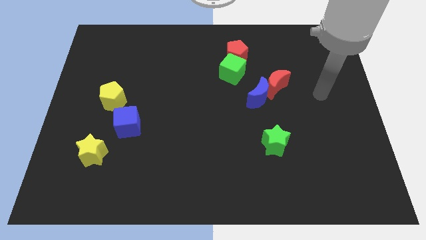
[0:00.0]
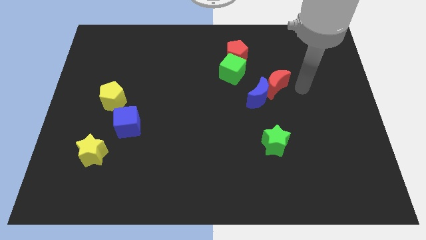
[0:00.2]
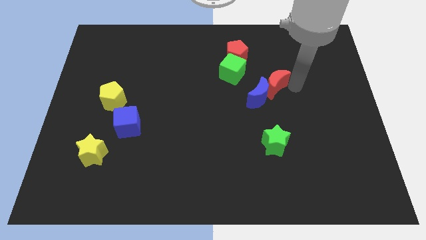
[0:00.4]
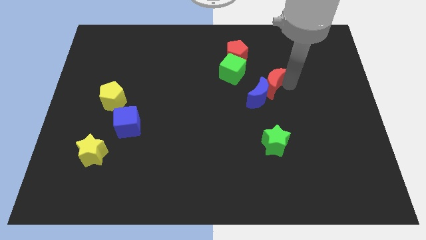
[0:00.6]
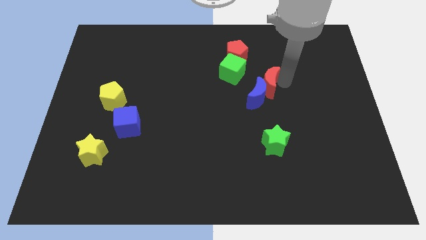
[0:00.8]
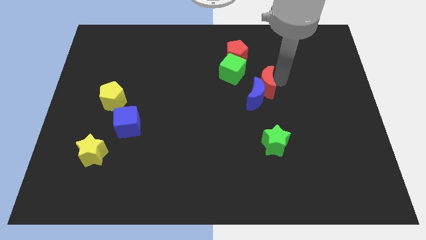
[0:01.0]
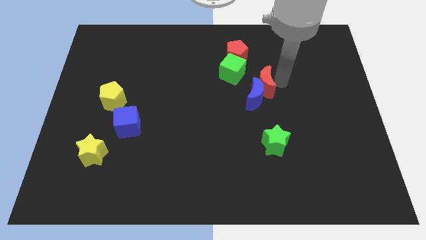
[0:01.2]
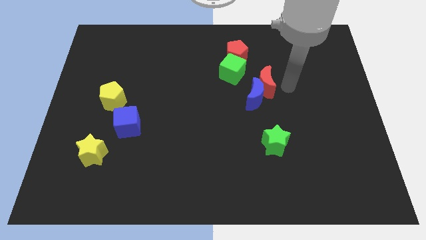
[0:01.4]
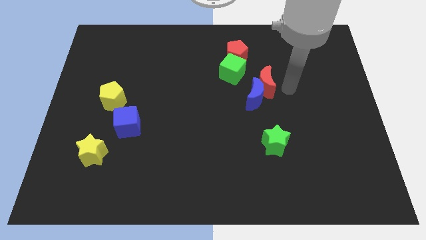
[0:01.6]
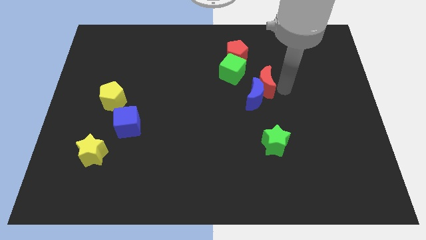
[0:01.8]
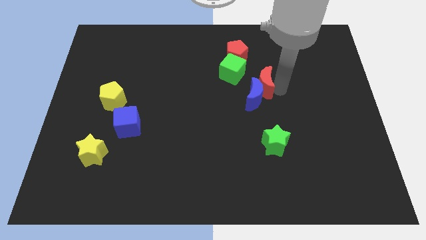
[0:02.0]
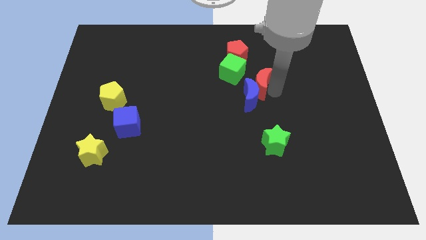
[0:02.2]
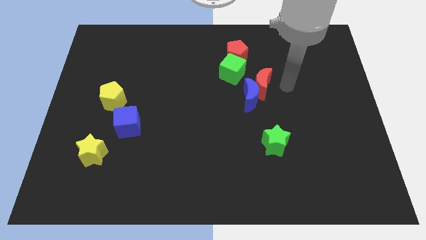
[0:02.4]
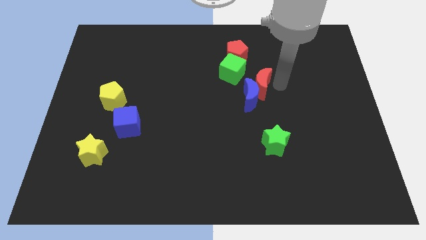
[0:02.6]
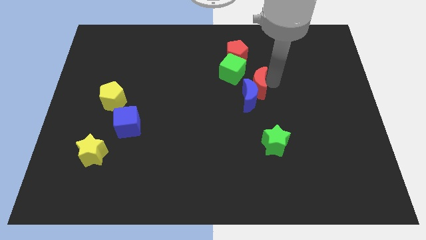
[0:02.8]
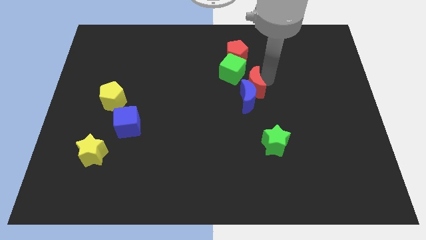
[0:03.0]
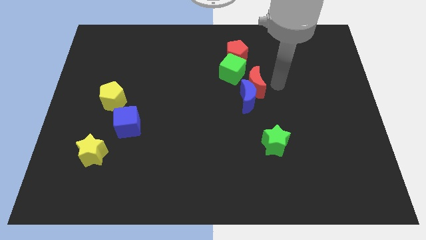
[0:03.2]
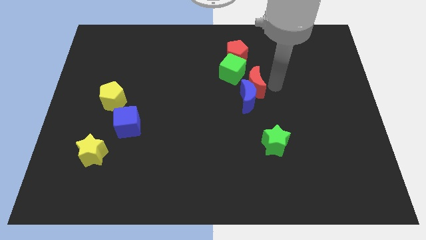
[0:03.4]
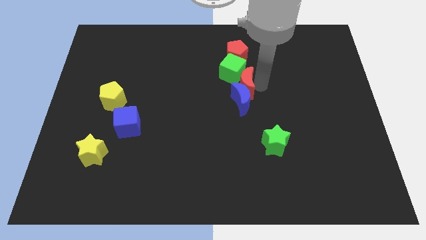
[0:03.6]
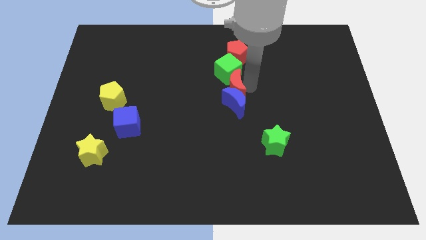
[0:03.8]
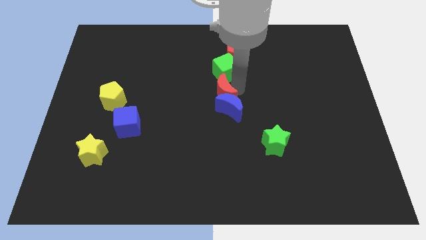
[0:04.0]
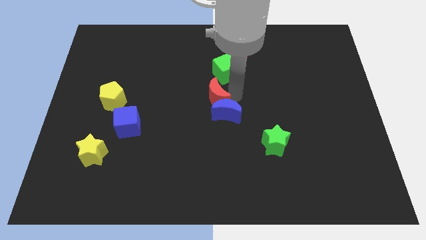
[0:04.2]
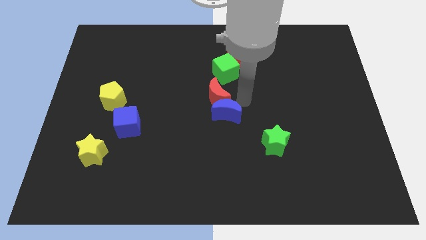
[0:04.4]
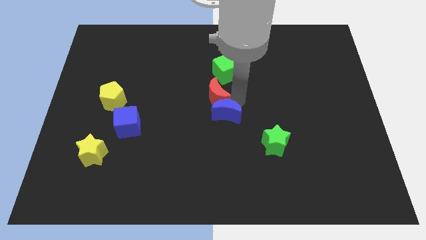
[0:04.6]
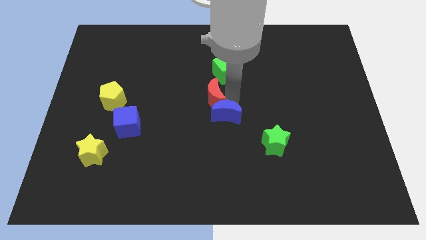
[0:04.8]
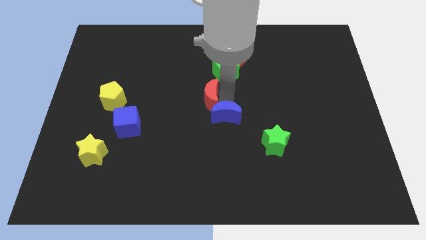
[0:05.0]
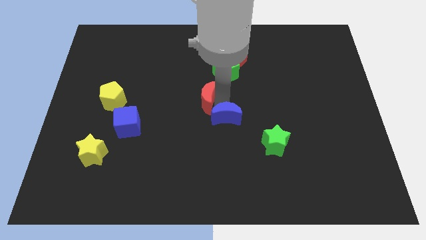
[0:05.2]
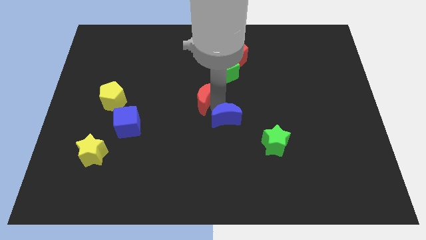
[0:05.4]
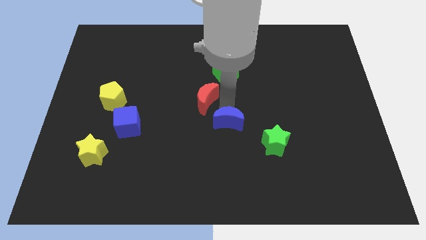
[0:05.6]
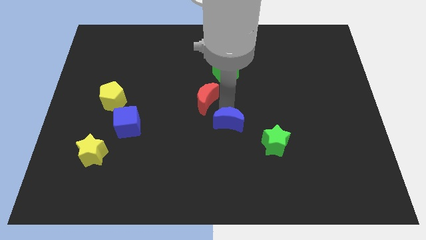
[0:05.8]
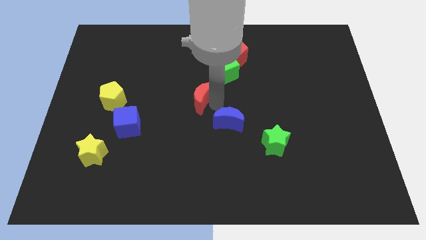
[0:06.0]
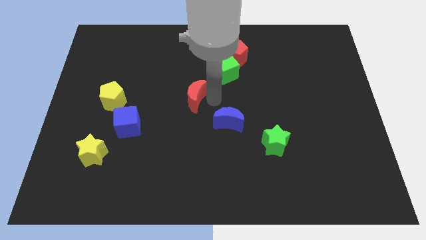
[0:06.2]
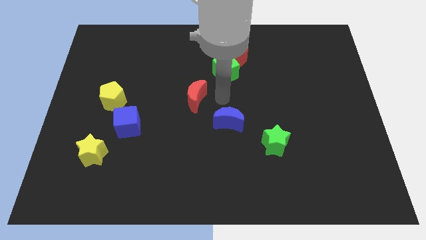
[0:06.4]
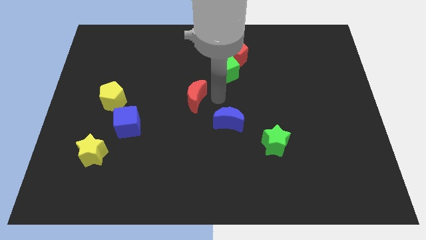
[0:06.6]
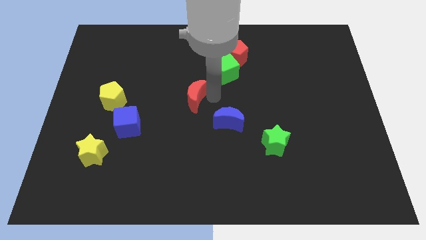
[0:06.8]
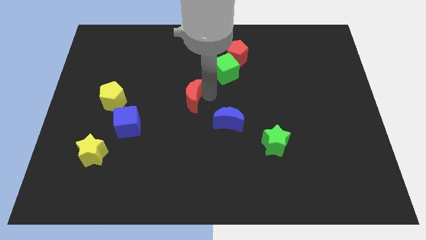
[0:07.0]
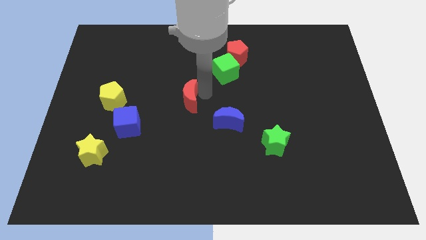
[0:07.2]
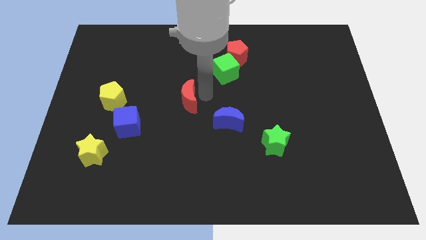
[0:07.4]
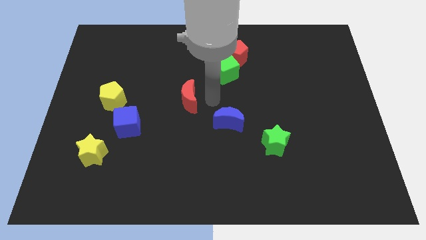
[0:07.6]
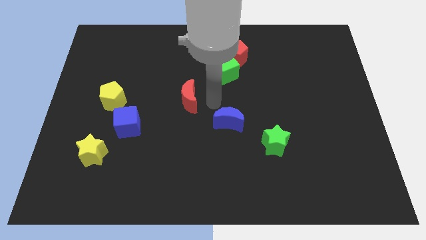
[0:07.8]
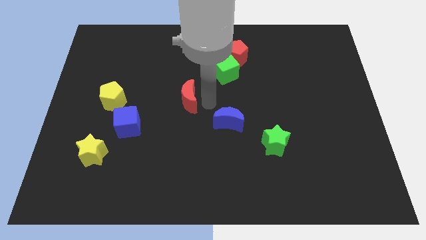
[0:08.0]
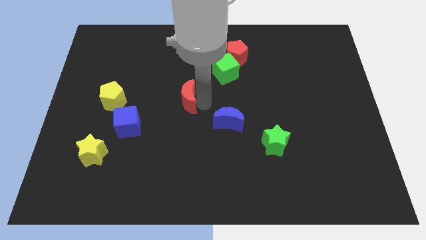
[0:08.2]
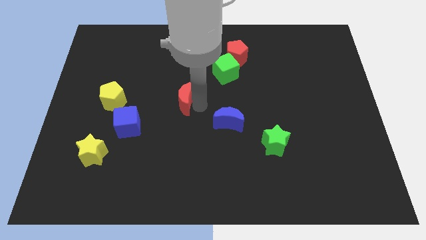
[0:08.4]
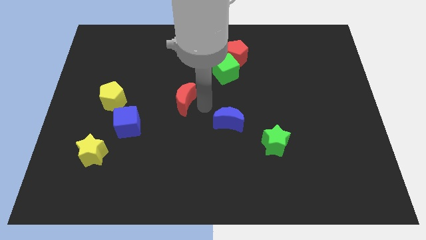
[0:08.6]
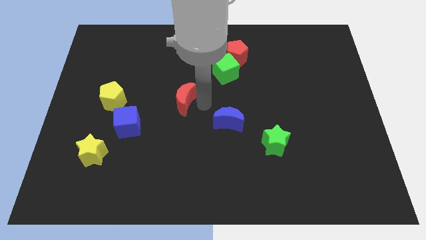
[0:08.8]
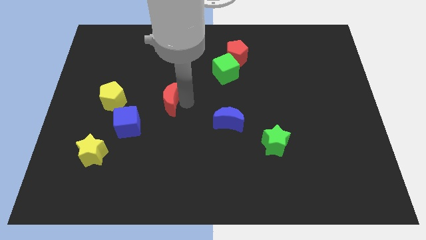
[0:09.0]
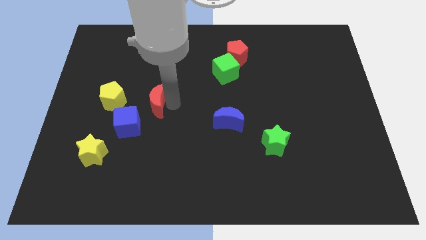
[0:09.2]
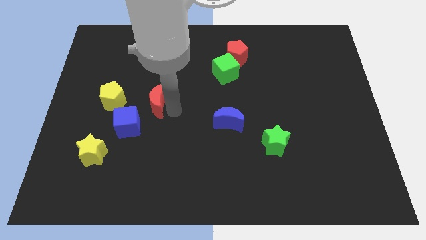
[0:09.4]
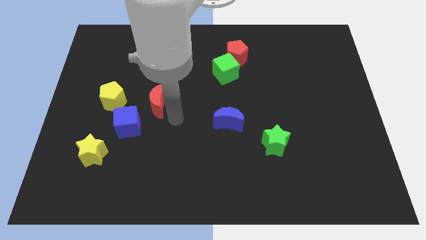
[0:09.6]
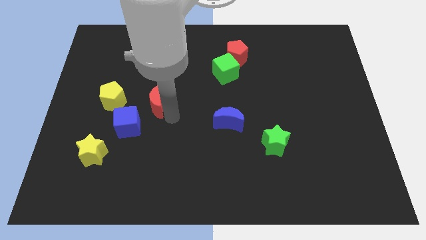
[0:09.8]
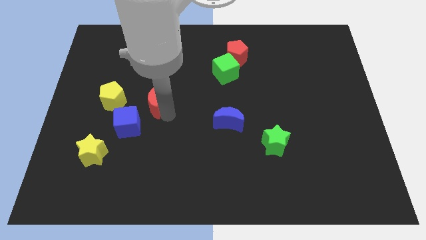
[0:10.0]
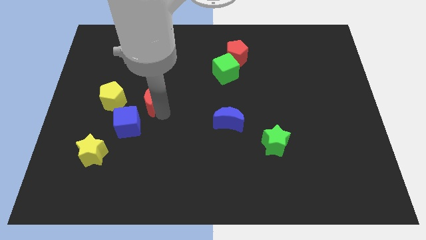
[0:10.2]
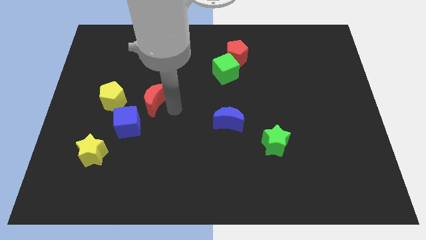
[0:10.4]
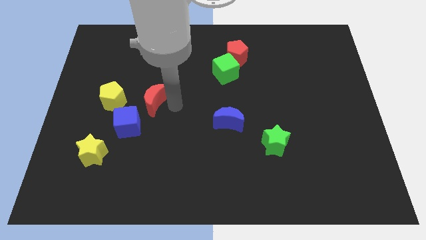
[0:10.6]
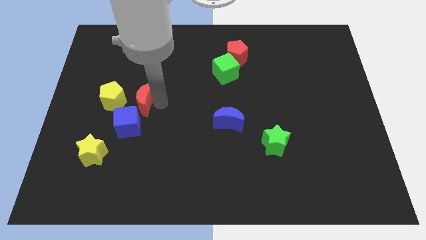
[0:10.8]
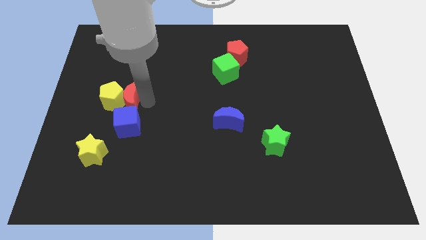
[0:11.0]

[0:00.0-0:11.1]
put the red moon close to the yellow pentagon

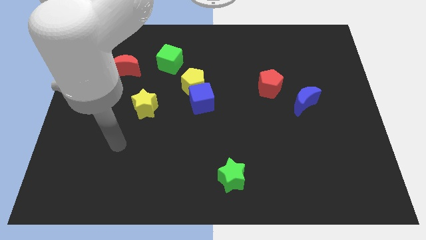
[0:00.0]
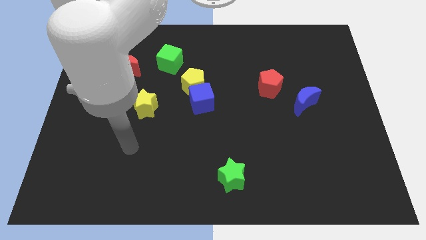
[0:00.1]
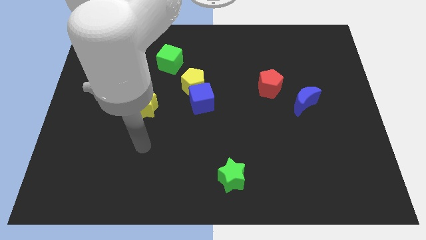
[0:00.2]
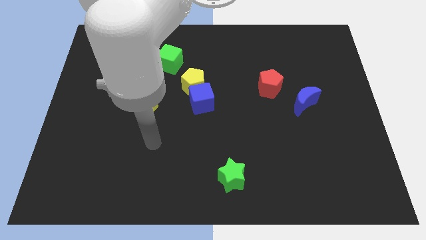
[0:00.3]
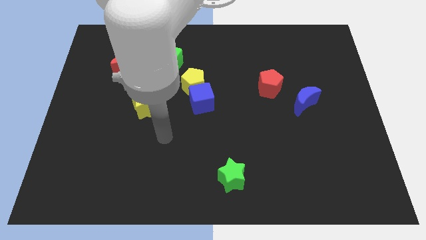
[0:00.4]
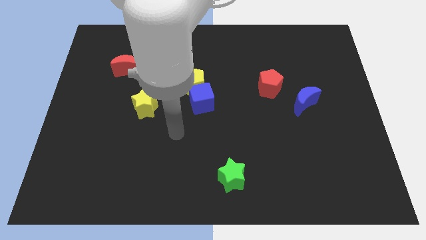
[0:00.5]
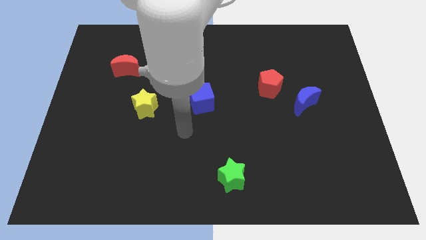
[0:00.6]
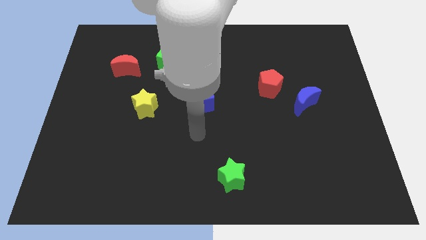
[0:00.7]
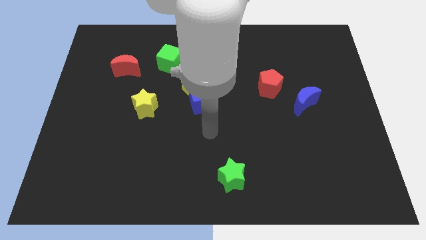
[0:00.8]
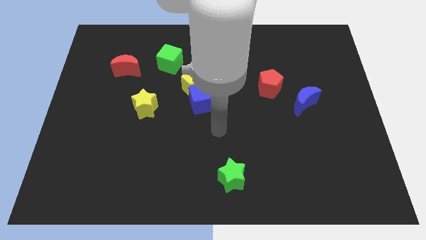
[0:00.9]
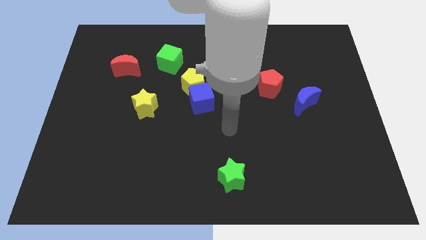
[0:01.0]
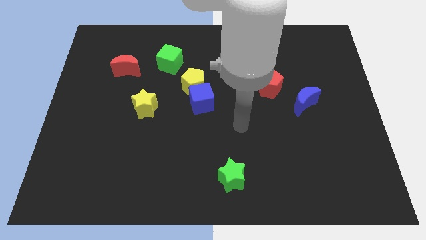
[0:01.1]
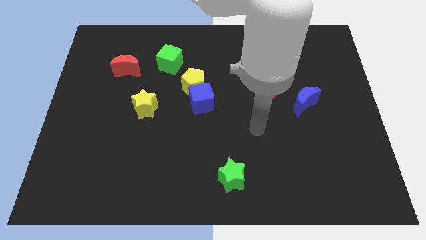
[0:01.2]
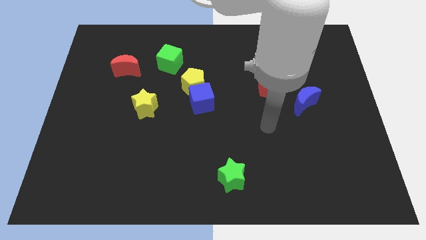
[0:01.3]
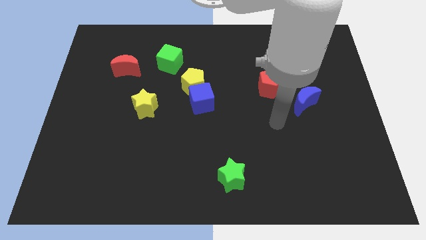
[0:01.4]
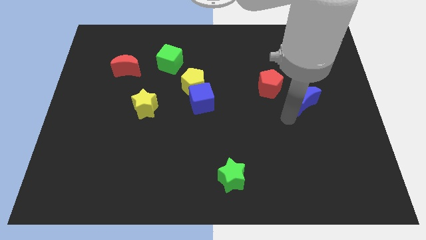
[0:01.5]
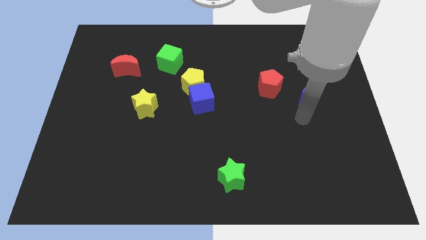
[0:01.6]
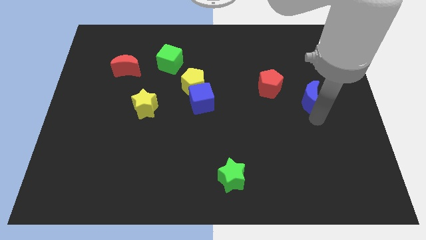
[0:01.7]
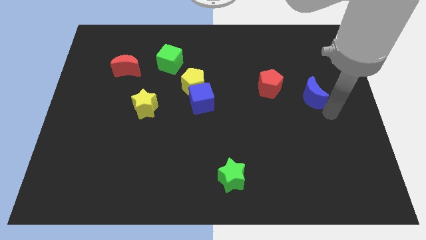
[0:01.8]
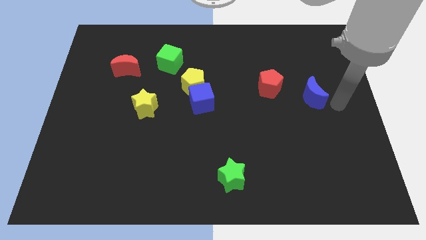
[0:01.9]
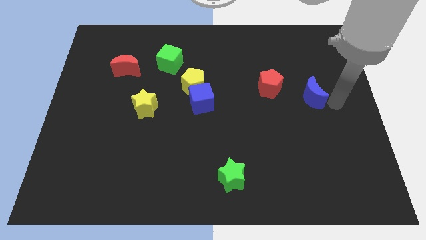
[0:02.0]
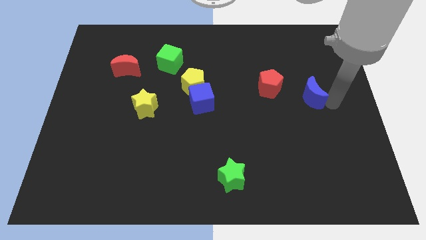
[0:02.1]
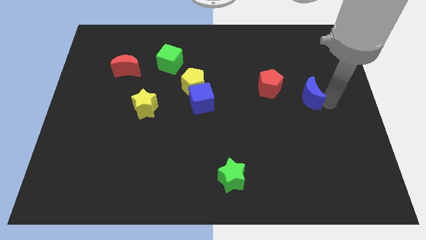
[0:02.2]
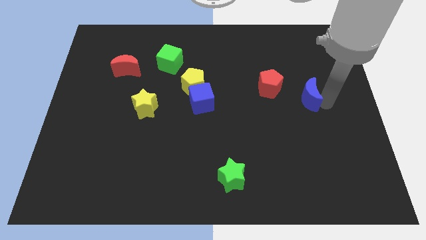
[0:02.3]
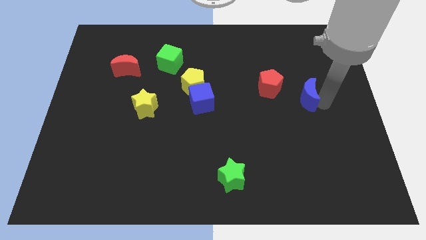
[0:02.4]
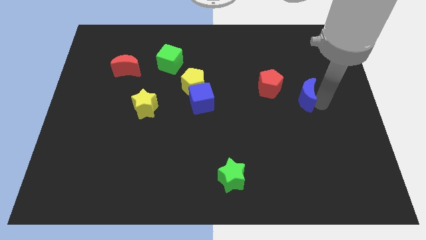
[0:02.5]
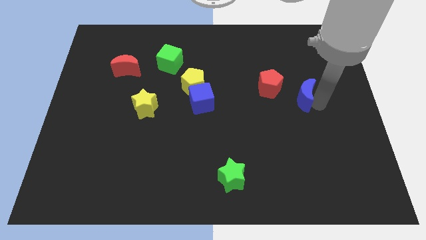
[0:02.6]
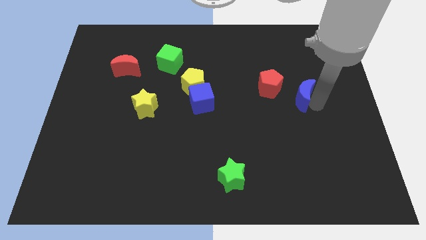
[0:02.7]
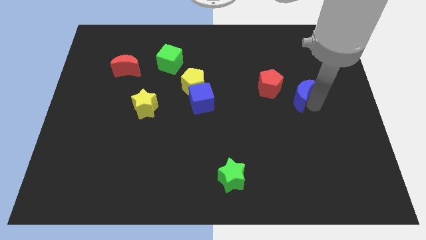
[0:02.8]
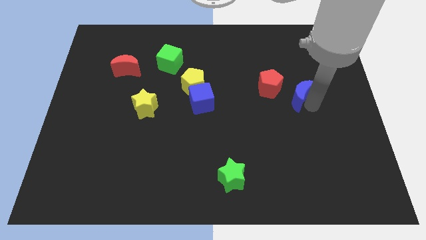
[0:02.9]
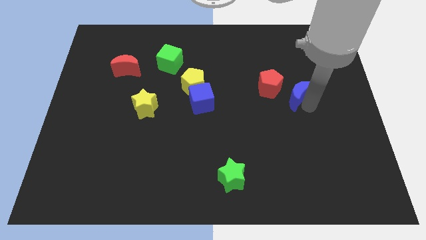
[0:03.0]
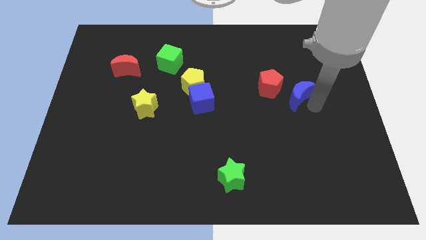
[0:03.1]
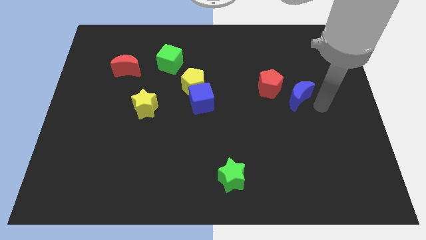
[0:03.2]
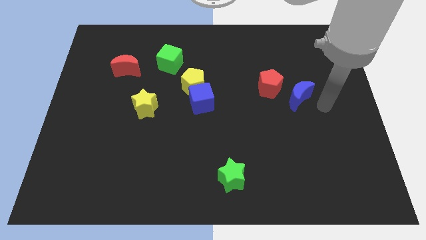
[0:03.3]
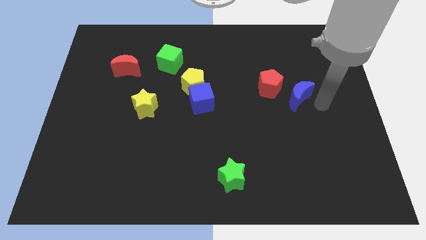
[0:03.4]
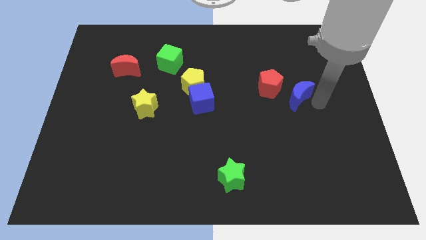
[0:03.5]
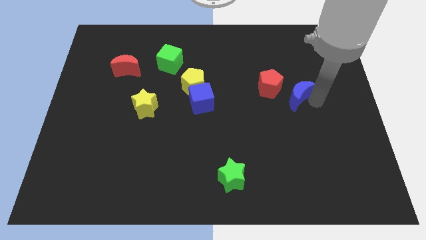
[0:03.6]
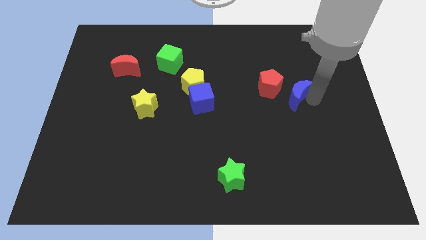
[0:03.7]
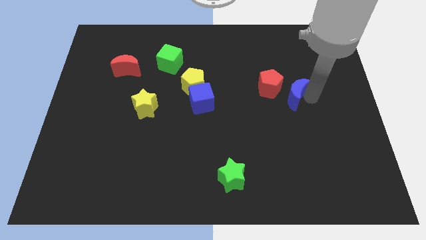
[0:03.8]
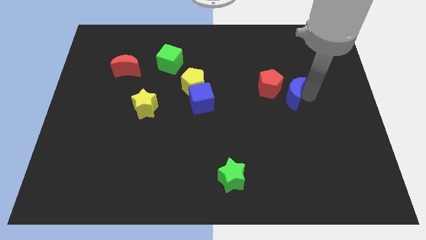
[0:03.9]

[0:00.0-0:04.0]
push the blue moon to the red pentagon
